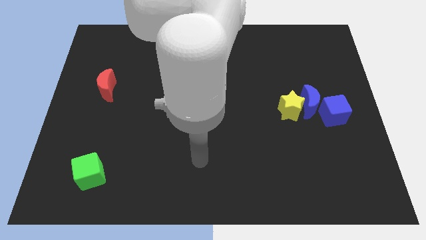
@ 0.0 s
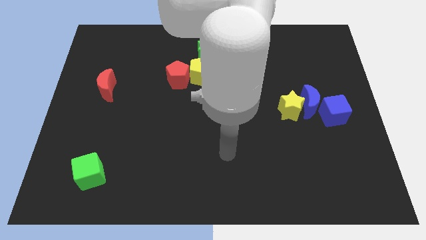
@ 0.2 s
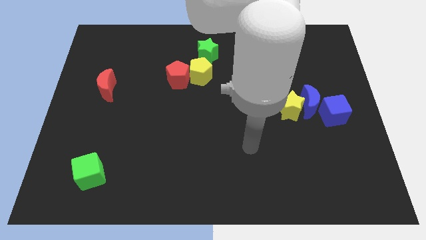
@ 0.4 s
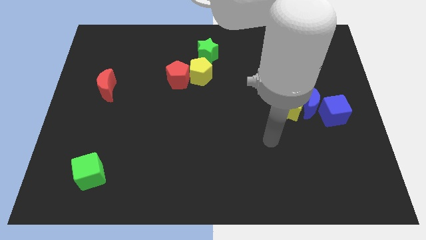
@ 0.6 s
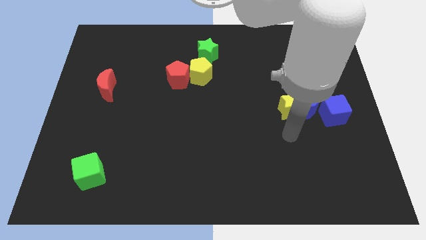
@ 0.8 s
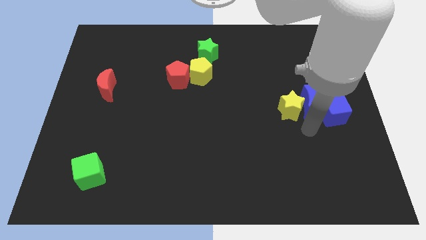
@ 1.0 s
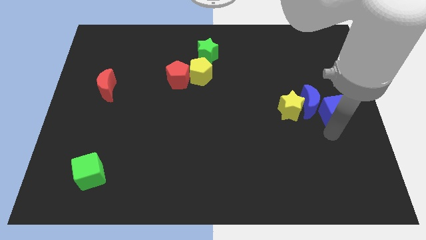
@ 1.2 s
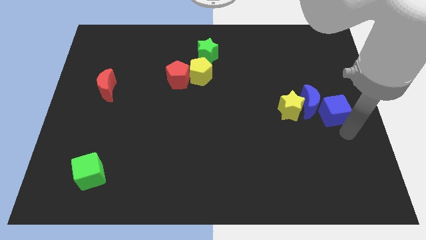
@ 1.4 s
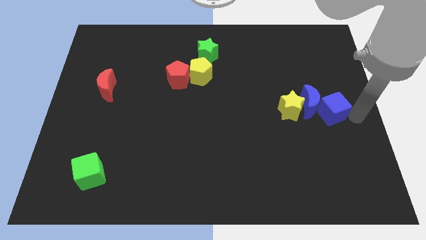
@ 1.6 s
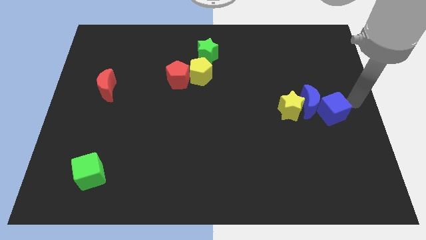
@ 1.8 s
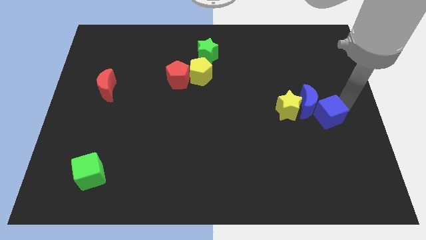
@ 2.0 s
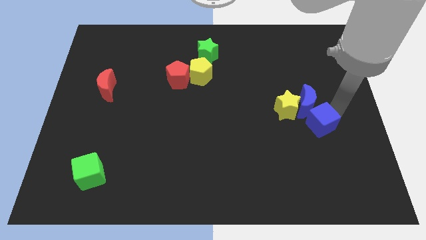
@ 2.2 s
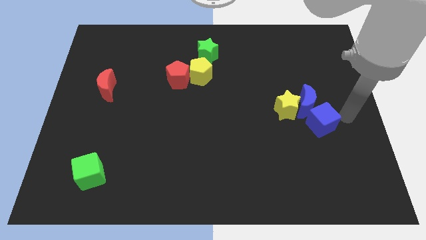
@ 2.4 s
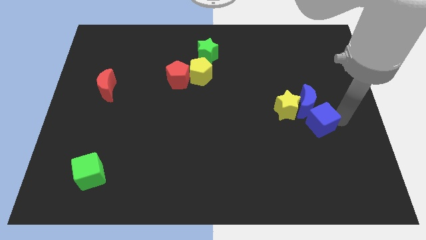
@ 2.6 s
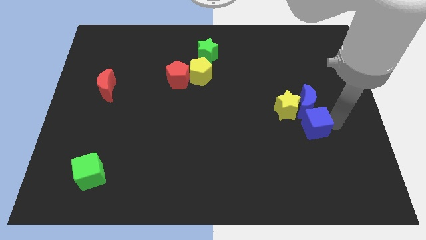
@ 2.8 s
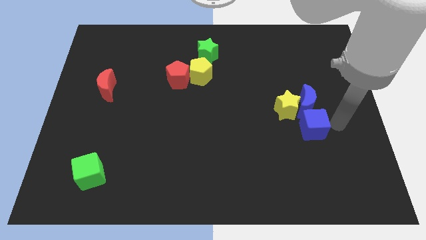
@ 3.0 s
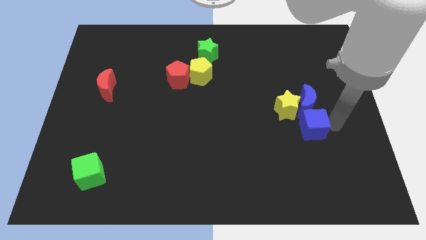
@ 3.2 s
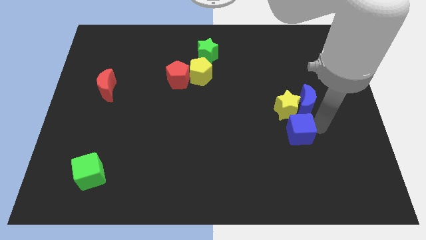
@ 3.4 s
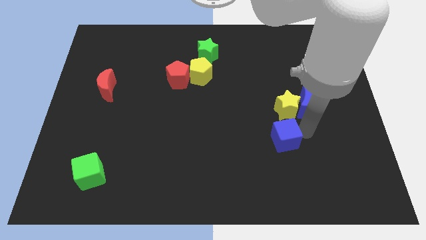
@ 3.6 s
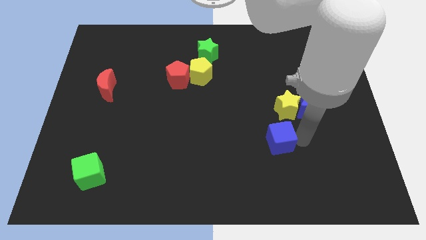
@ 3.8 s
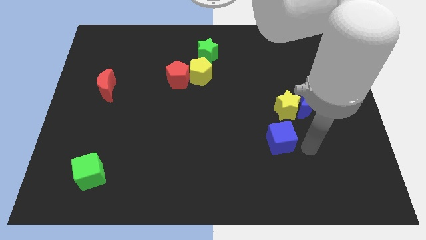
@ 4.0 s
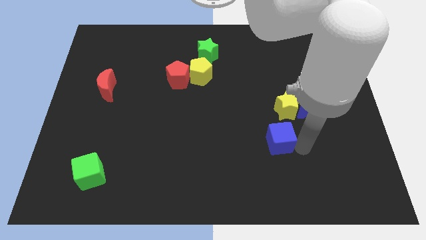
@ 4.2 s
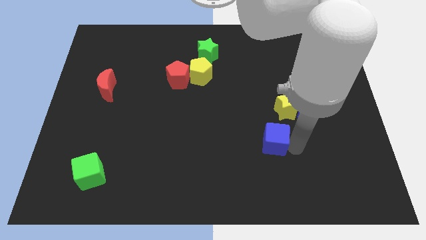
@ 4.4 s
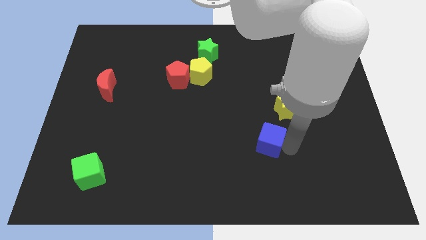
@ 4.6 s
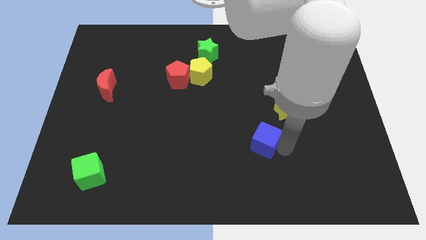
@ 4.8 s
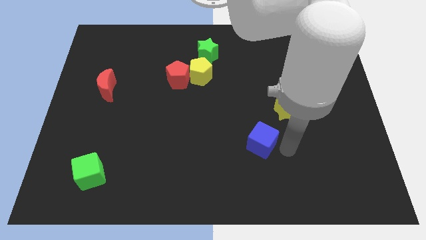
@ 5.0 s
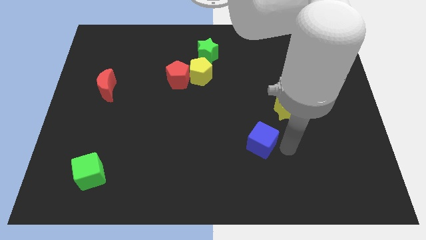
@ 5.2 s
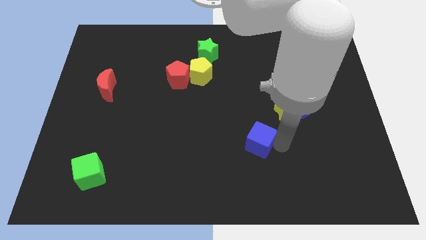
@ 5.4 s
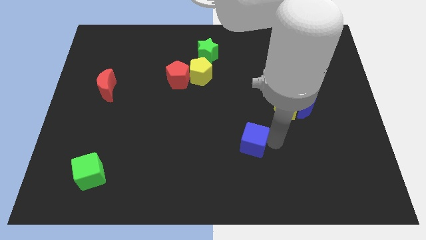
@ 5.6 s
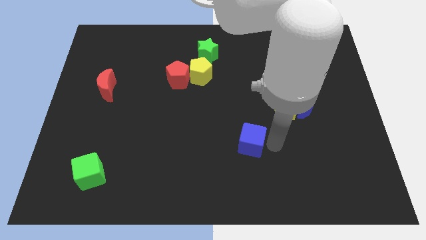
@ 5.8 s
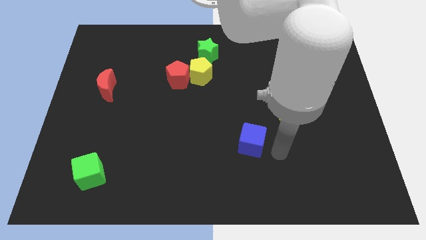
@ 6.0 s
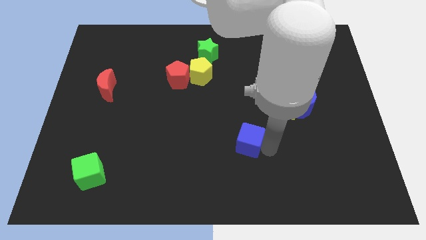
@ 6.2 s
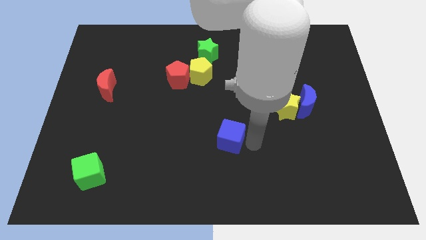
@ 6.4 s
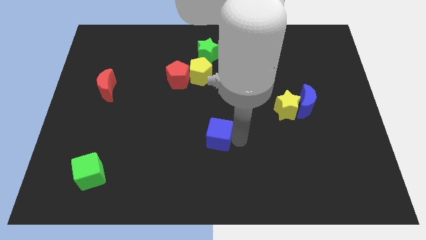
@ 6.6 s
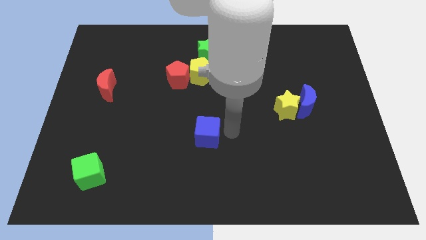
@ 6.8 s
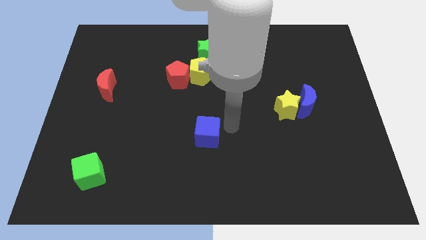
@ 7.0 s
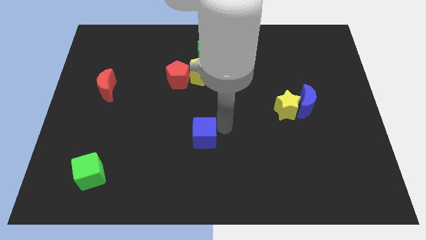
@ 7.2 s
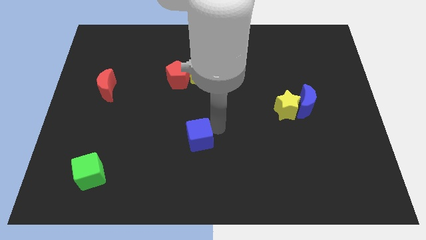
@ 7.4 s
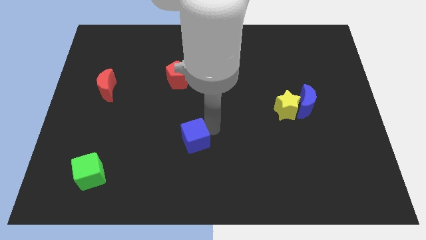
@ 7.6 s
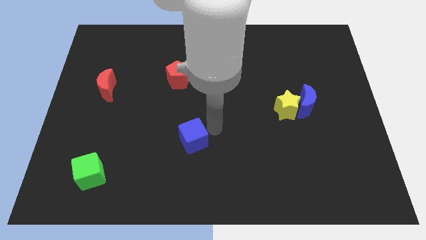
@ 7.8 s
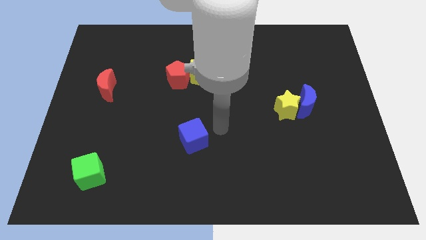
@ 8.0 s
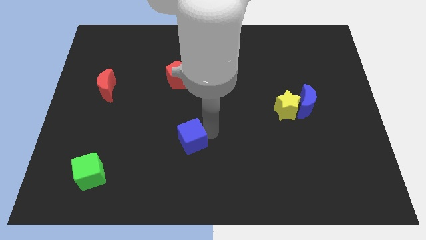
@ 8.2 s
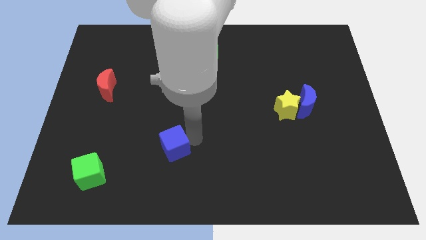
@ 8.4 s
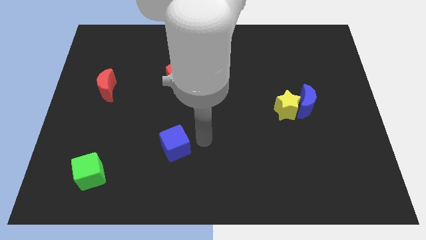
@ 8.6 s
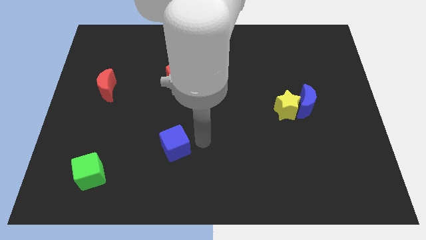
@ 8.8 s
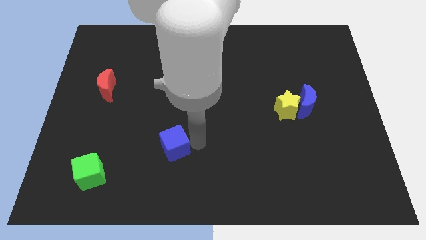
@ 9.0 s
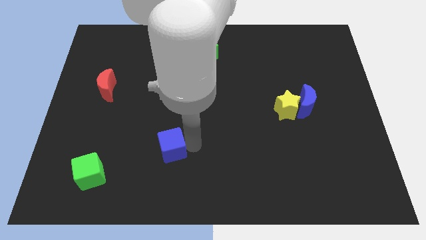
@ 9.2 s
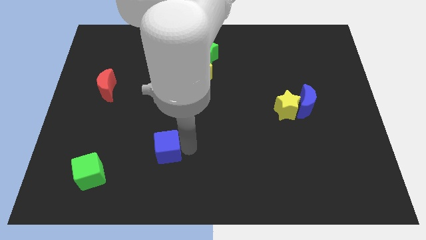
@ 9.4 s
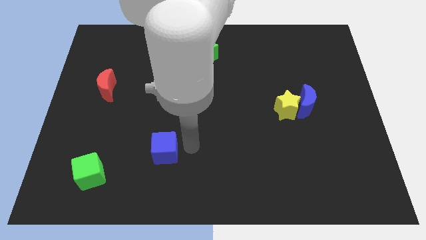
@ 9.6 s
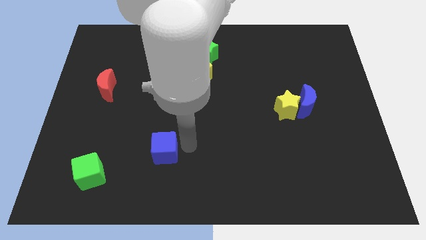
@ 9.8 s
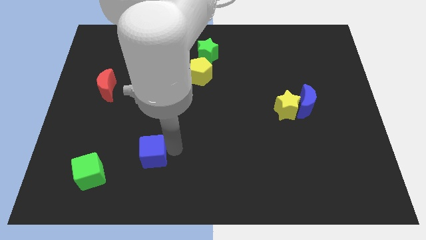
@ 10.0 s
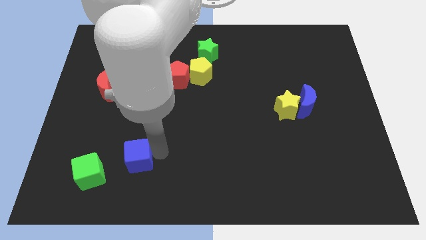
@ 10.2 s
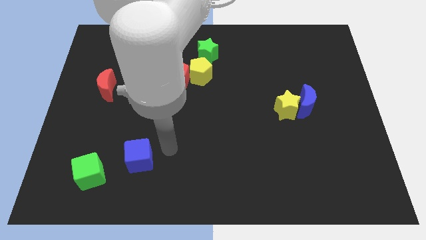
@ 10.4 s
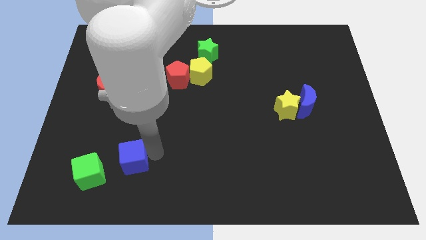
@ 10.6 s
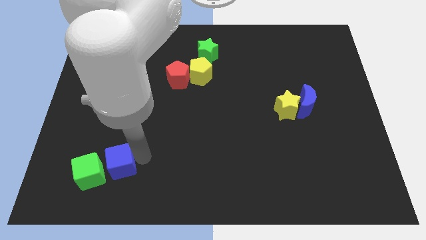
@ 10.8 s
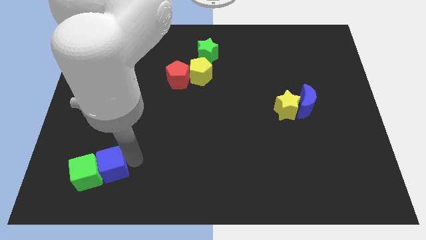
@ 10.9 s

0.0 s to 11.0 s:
slide the blue cube towards the green cube

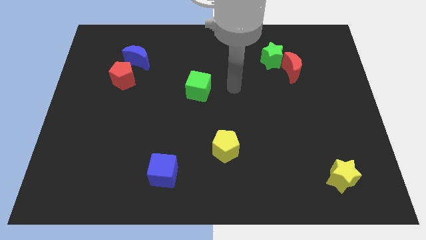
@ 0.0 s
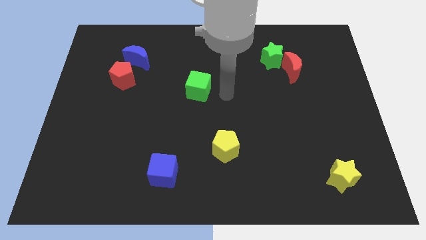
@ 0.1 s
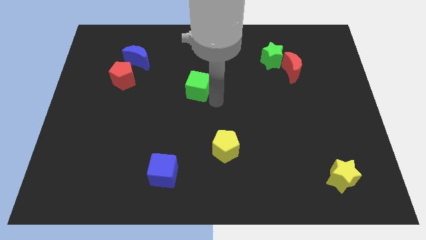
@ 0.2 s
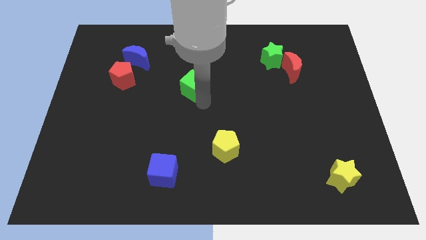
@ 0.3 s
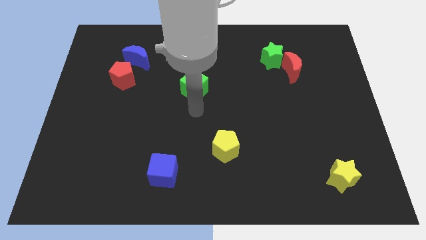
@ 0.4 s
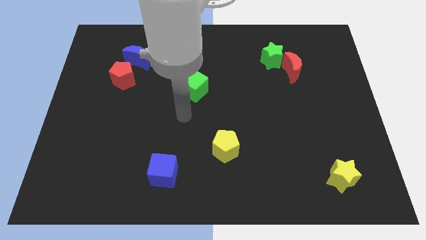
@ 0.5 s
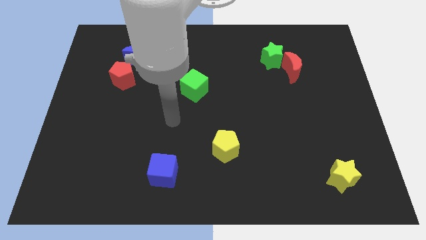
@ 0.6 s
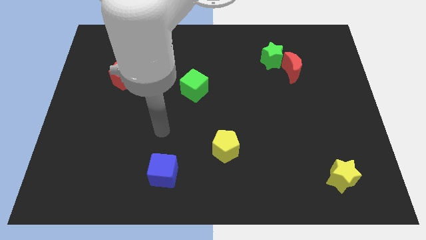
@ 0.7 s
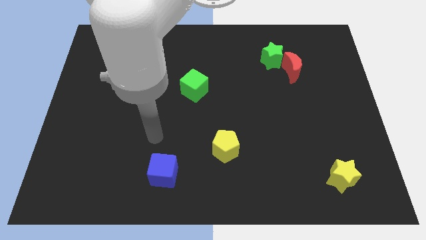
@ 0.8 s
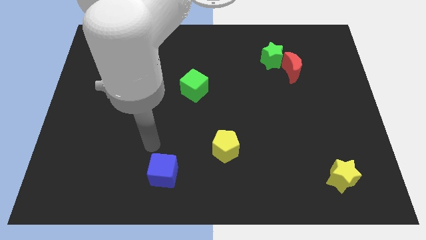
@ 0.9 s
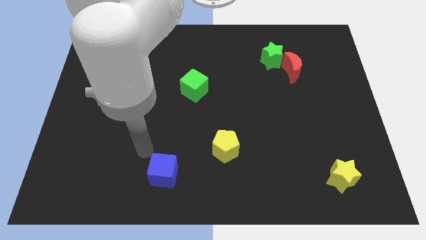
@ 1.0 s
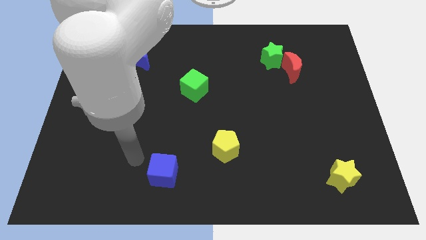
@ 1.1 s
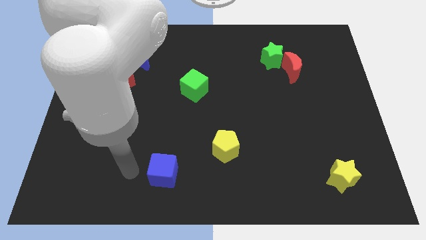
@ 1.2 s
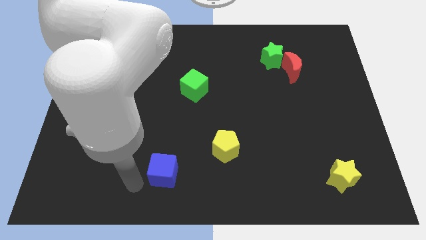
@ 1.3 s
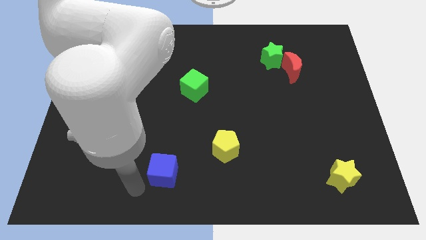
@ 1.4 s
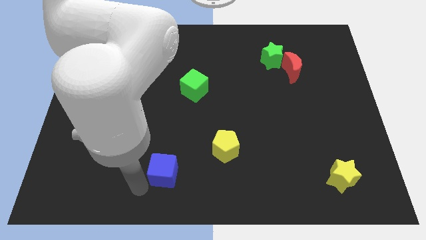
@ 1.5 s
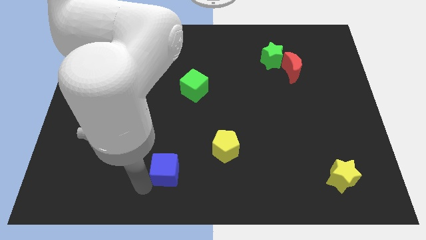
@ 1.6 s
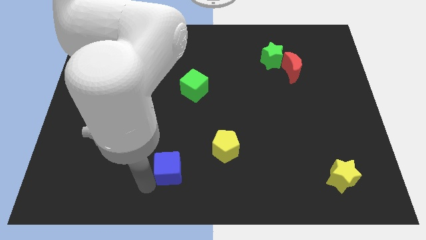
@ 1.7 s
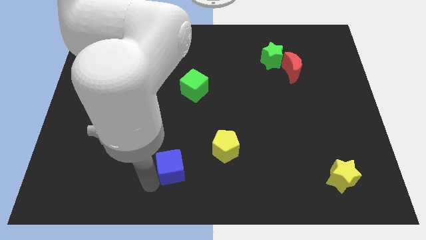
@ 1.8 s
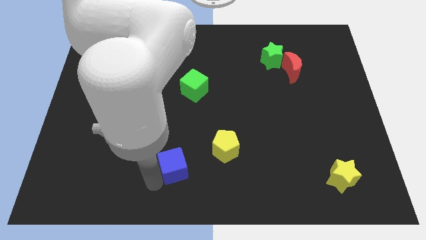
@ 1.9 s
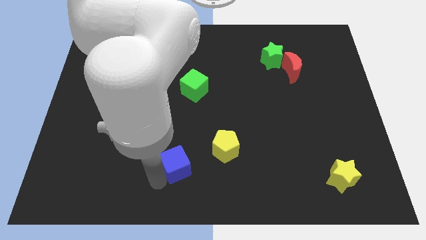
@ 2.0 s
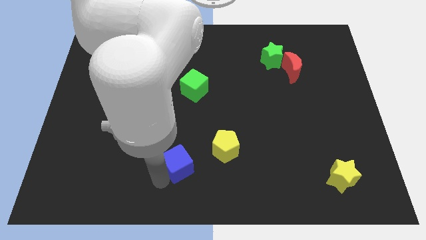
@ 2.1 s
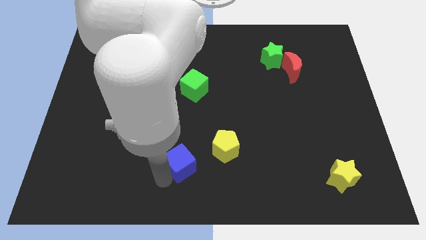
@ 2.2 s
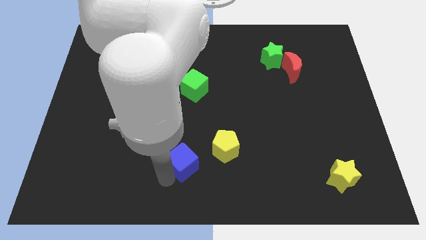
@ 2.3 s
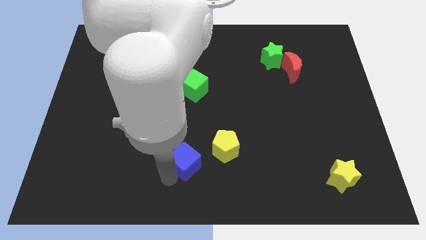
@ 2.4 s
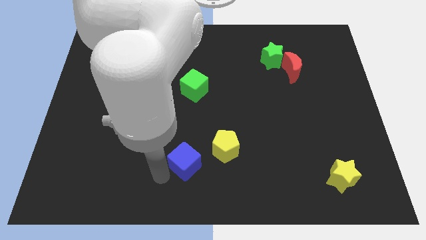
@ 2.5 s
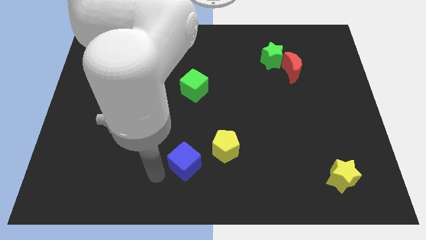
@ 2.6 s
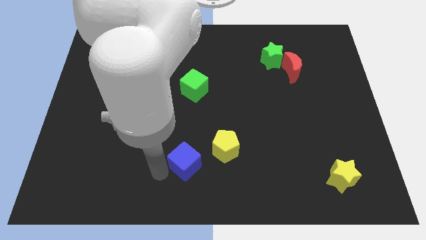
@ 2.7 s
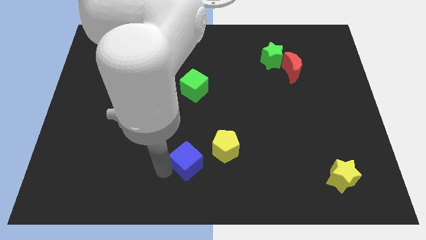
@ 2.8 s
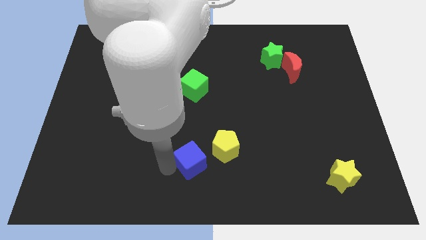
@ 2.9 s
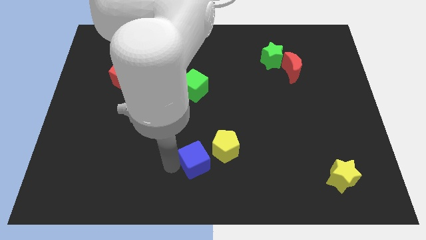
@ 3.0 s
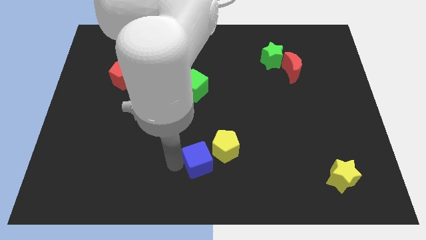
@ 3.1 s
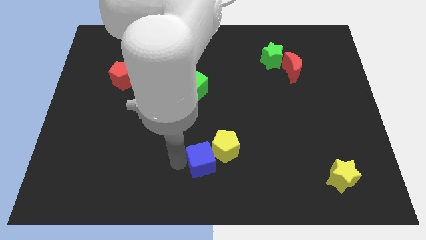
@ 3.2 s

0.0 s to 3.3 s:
slide the blue cube to the yellow pentagon
